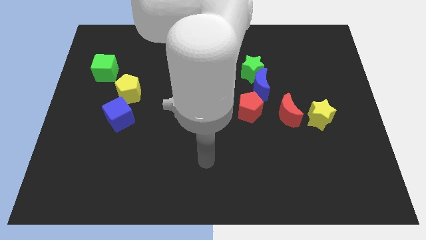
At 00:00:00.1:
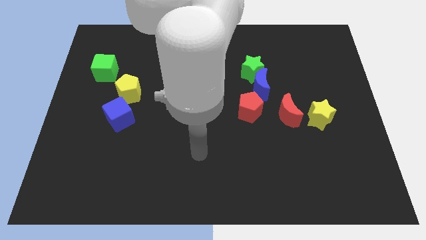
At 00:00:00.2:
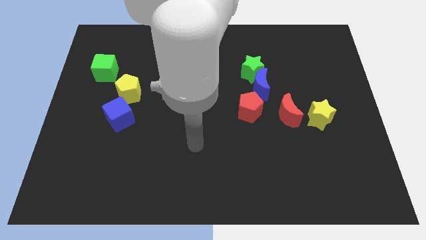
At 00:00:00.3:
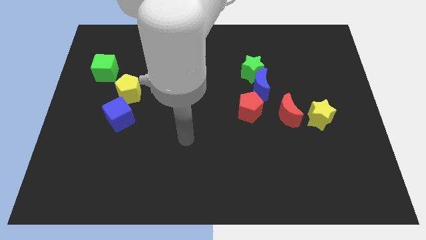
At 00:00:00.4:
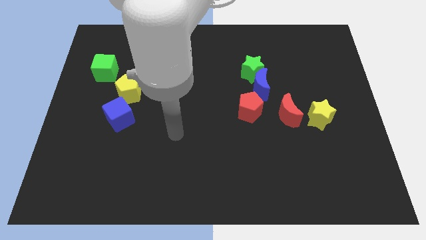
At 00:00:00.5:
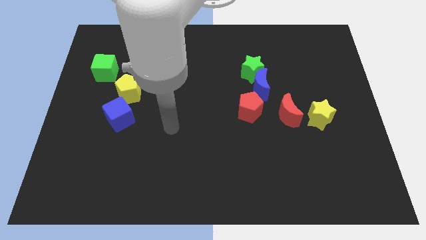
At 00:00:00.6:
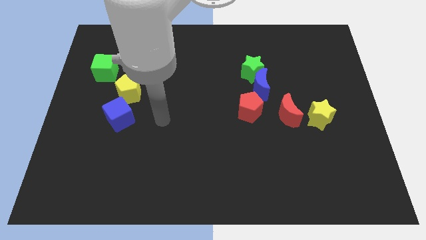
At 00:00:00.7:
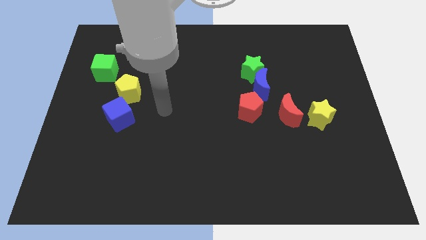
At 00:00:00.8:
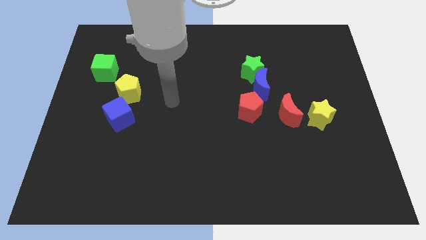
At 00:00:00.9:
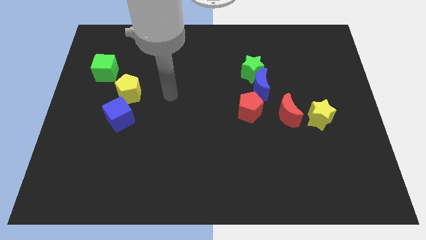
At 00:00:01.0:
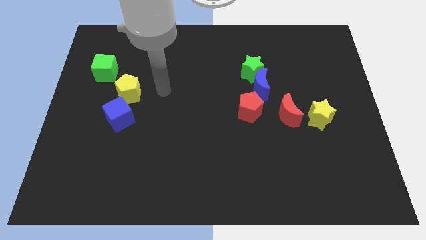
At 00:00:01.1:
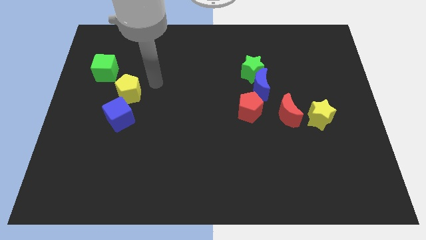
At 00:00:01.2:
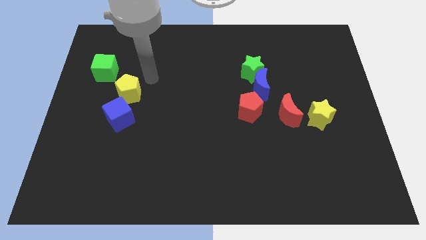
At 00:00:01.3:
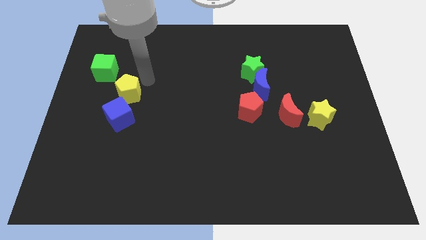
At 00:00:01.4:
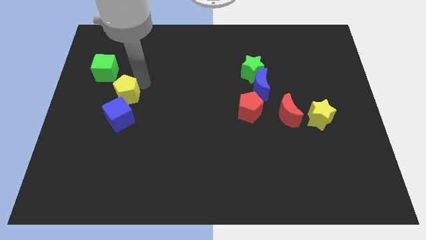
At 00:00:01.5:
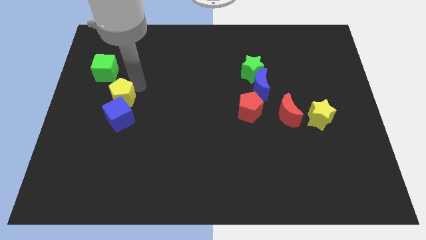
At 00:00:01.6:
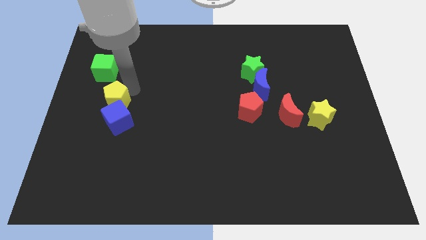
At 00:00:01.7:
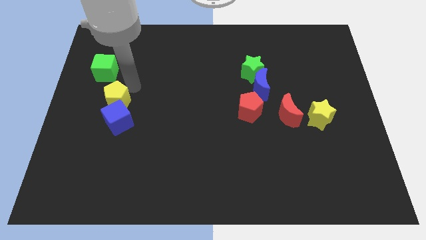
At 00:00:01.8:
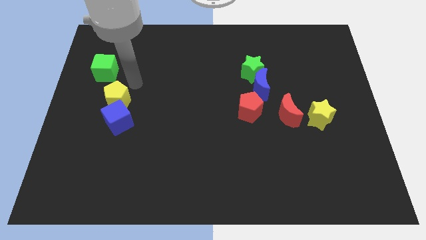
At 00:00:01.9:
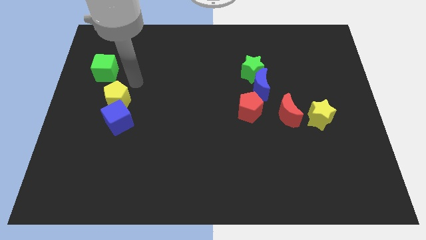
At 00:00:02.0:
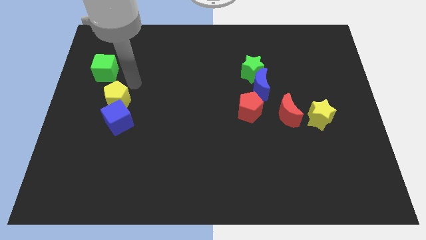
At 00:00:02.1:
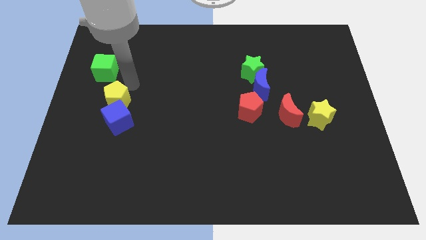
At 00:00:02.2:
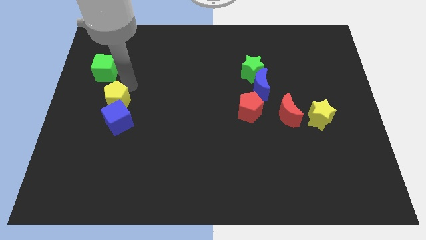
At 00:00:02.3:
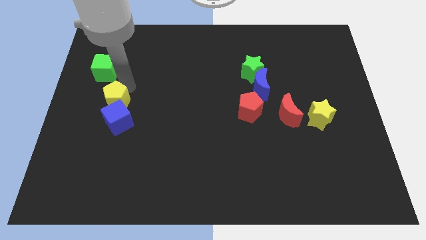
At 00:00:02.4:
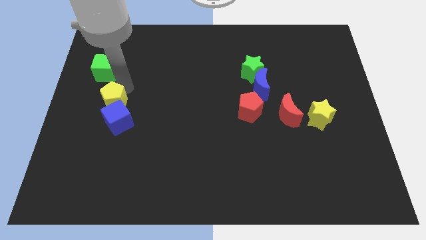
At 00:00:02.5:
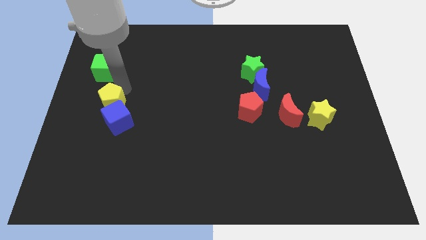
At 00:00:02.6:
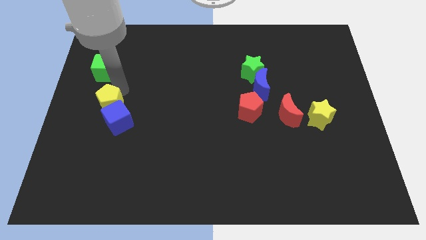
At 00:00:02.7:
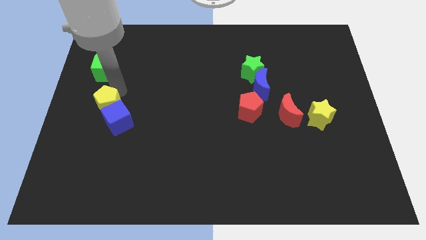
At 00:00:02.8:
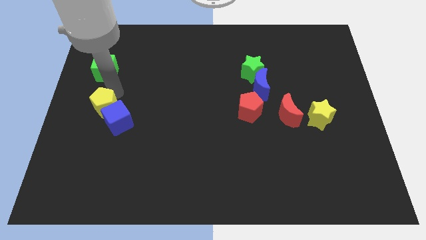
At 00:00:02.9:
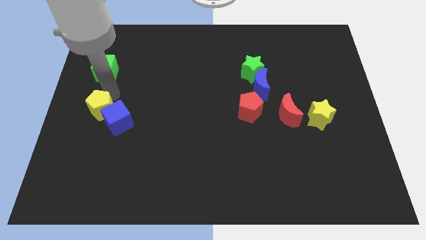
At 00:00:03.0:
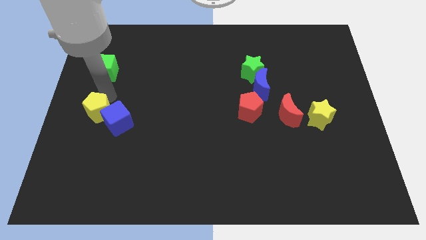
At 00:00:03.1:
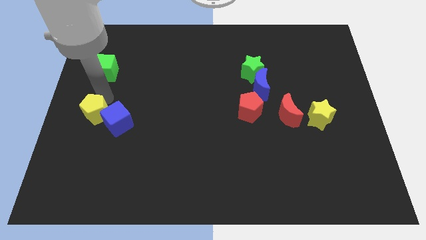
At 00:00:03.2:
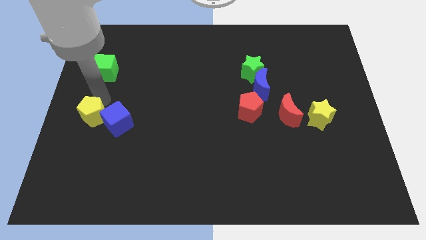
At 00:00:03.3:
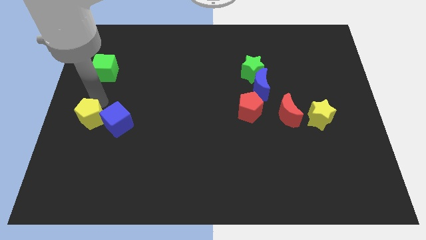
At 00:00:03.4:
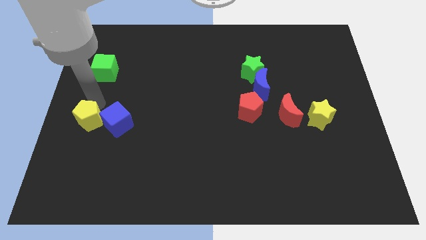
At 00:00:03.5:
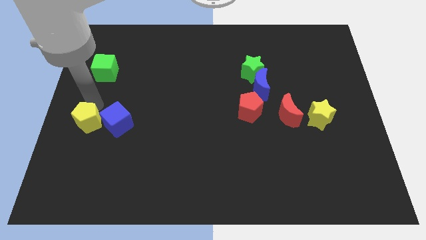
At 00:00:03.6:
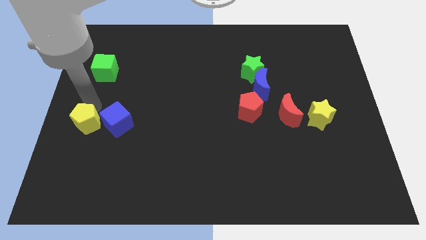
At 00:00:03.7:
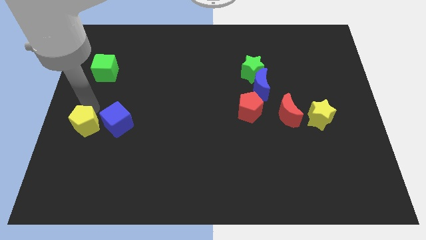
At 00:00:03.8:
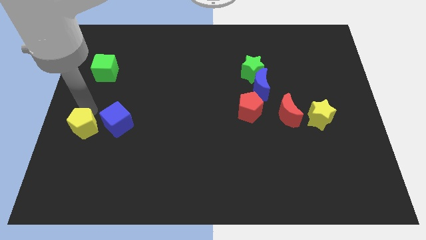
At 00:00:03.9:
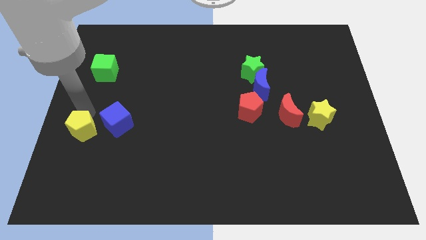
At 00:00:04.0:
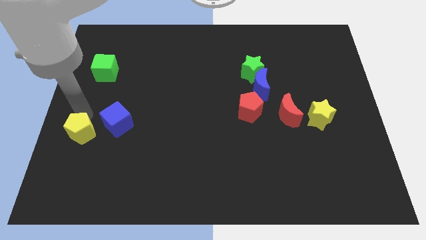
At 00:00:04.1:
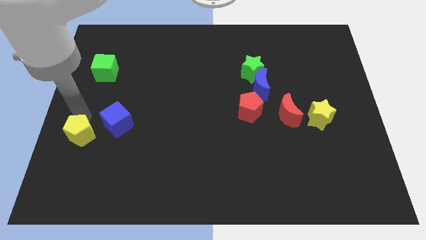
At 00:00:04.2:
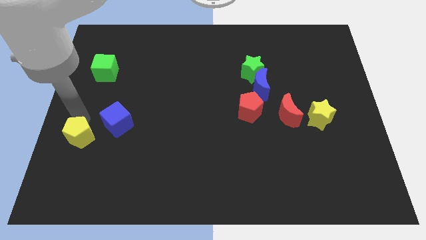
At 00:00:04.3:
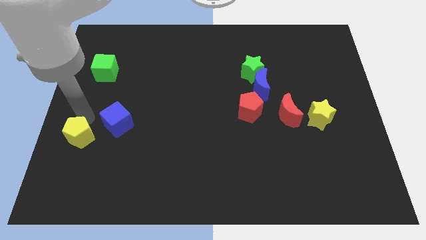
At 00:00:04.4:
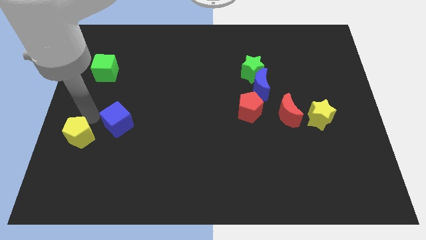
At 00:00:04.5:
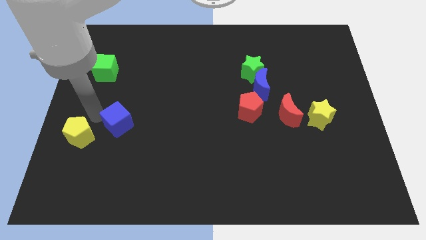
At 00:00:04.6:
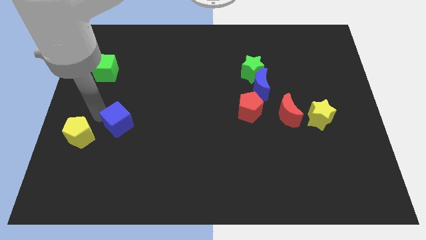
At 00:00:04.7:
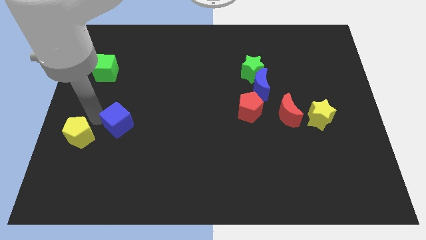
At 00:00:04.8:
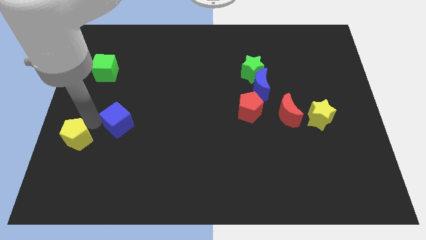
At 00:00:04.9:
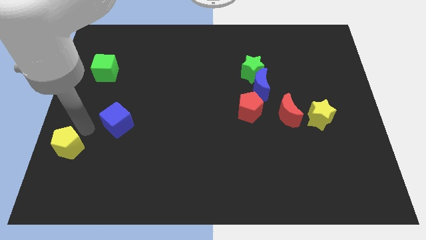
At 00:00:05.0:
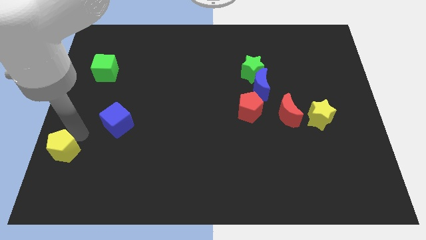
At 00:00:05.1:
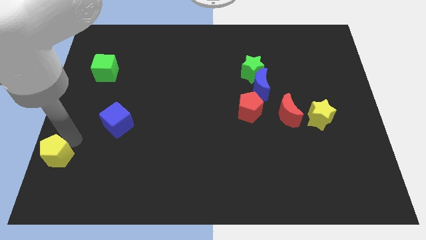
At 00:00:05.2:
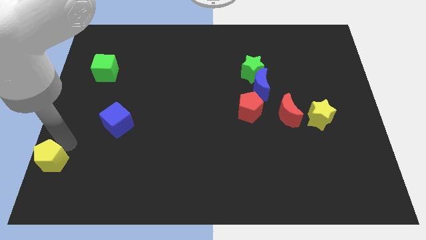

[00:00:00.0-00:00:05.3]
slide the yellow pentagon to the bottom left corner
